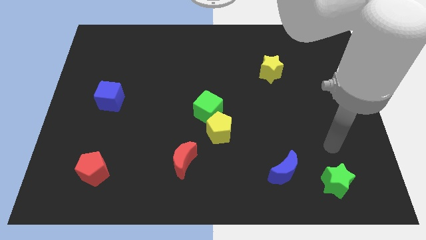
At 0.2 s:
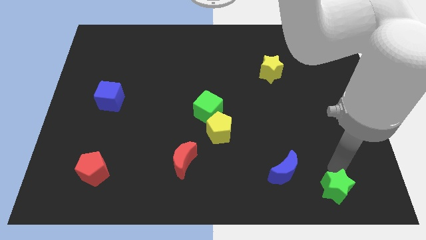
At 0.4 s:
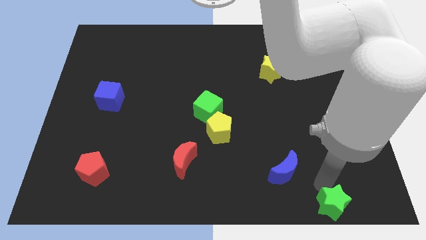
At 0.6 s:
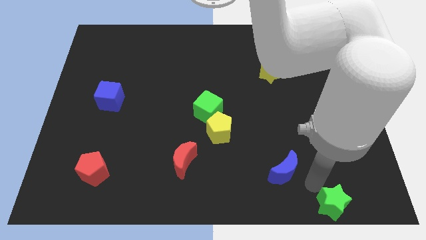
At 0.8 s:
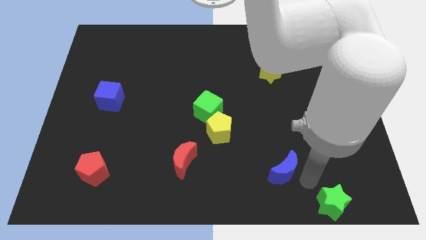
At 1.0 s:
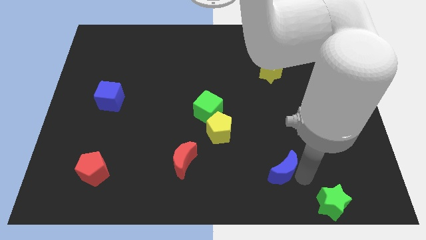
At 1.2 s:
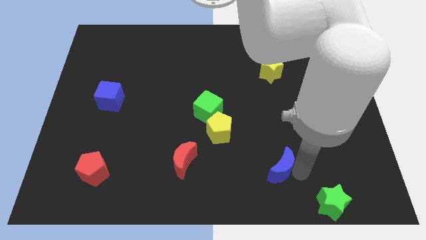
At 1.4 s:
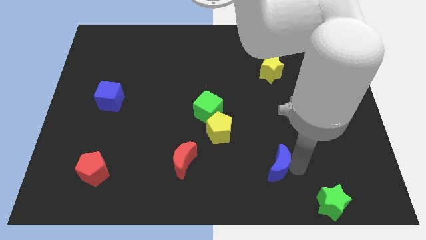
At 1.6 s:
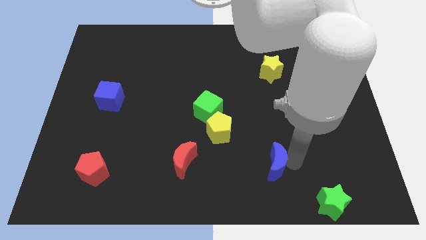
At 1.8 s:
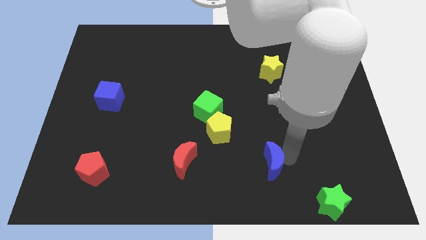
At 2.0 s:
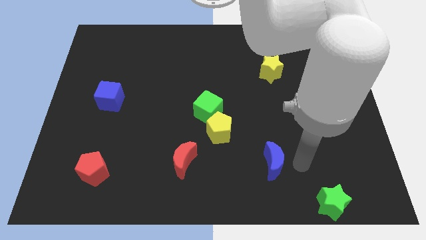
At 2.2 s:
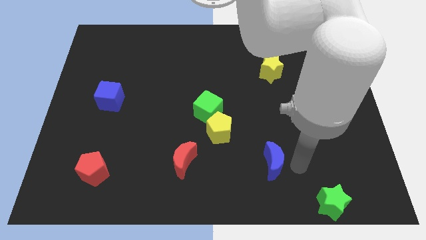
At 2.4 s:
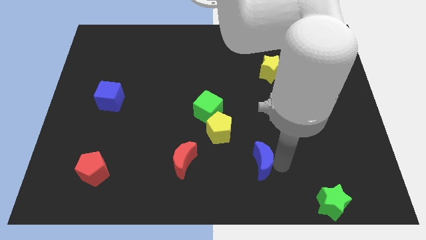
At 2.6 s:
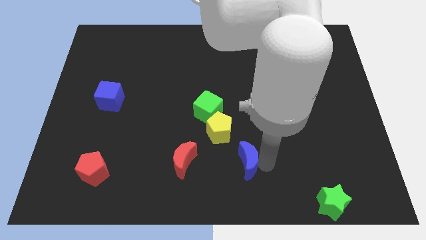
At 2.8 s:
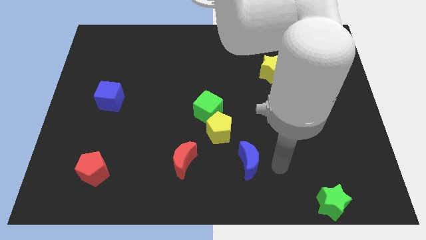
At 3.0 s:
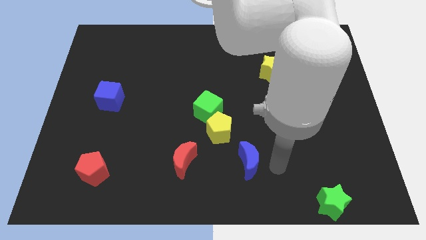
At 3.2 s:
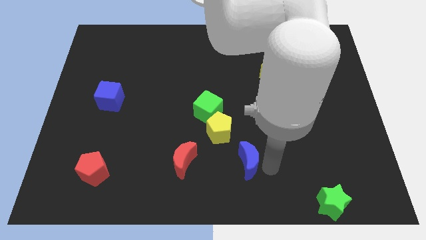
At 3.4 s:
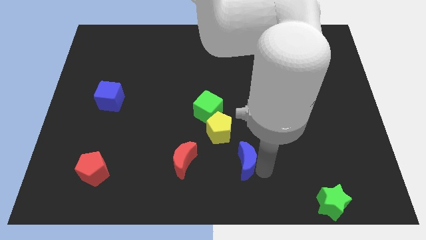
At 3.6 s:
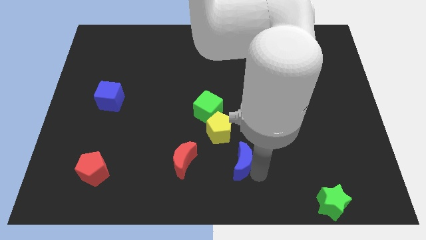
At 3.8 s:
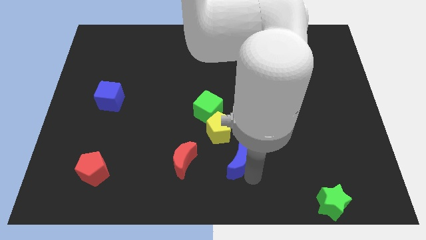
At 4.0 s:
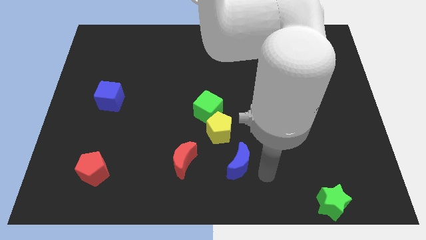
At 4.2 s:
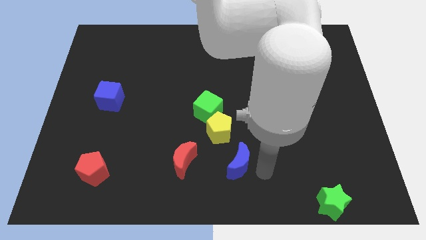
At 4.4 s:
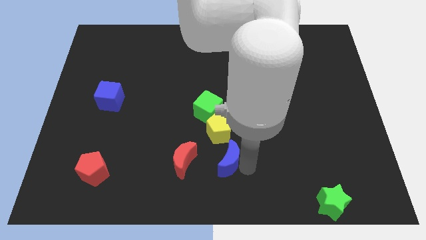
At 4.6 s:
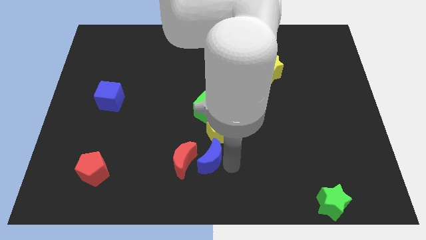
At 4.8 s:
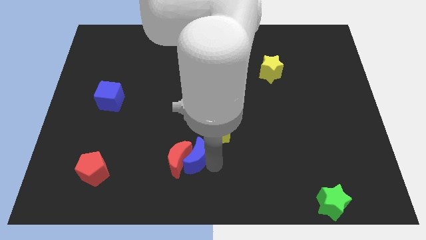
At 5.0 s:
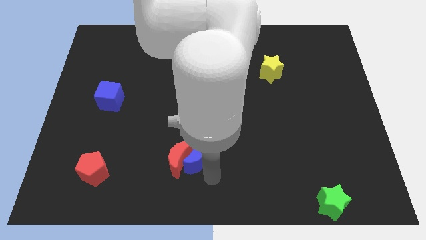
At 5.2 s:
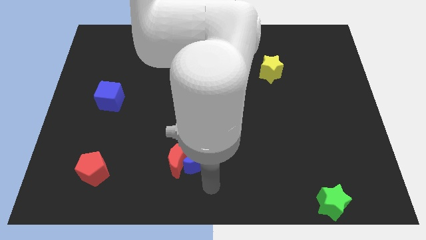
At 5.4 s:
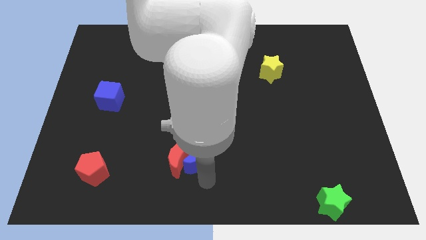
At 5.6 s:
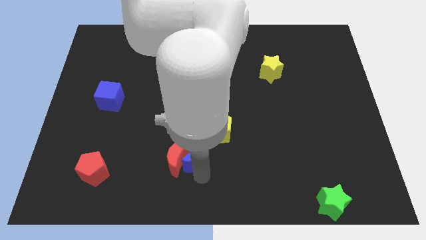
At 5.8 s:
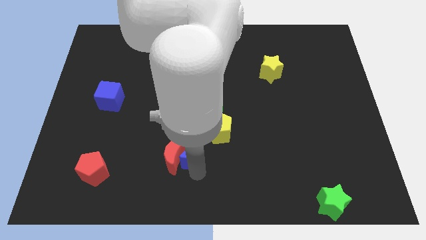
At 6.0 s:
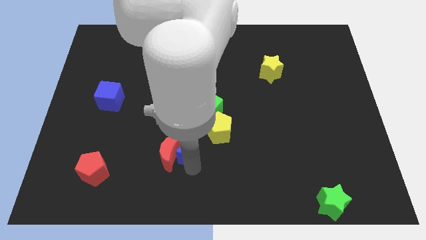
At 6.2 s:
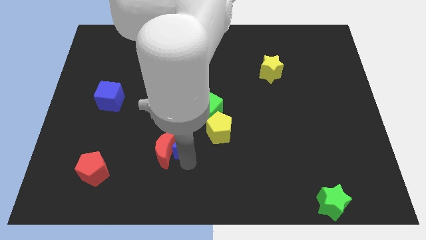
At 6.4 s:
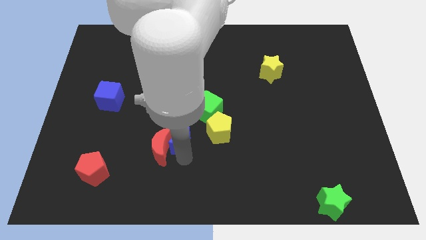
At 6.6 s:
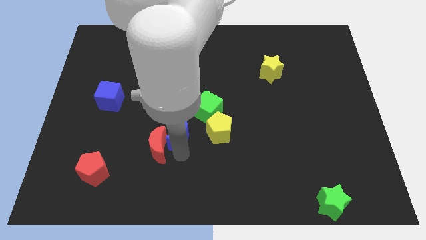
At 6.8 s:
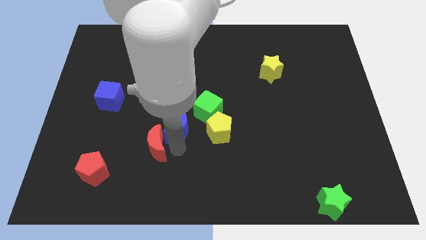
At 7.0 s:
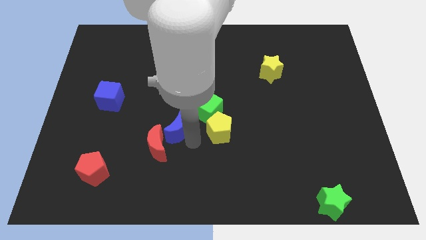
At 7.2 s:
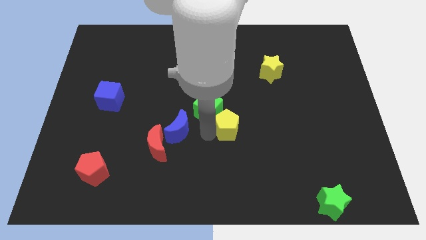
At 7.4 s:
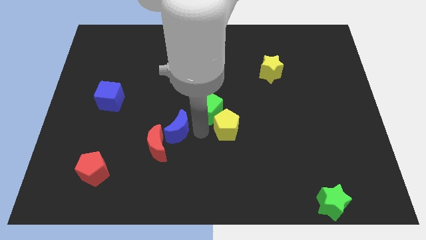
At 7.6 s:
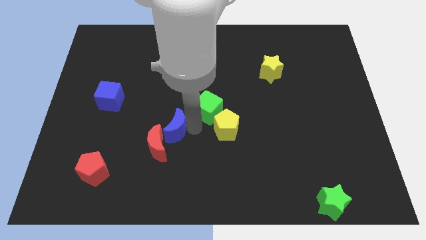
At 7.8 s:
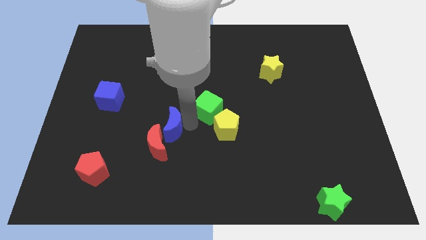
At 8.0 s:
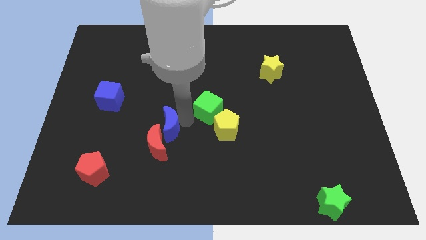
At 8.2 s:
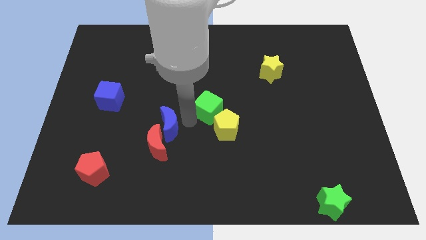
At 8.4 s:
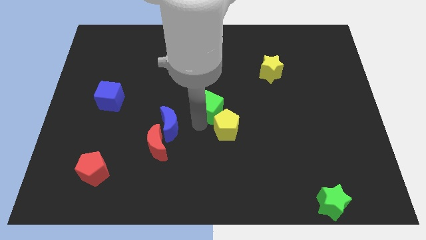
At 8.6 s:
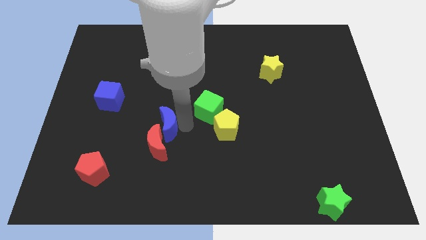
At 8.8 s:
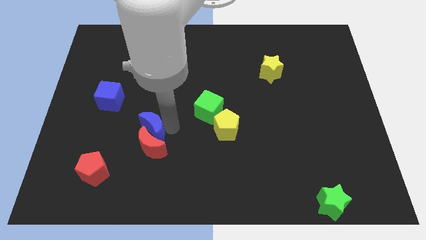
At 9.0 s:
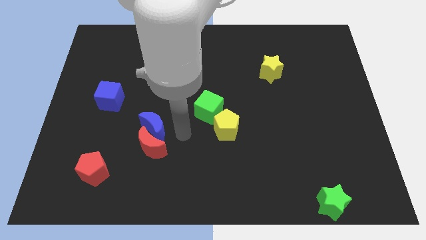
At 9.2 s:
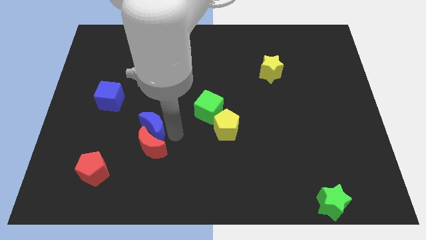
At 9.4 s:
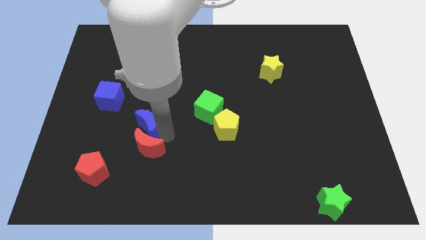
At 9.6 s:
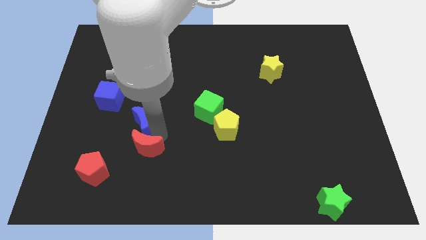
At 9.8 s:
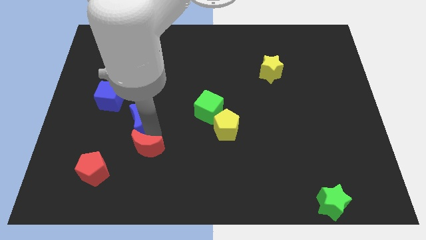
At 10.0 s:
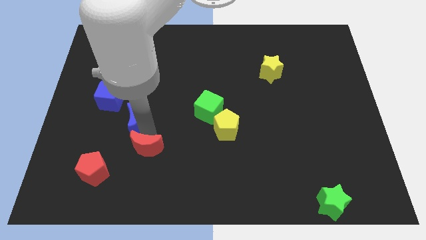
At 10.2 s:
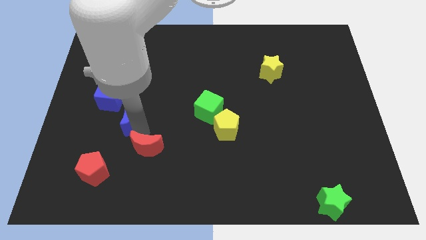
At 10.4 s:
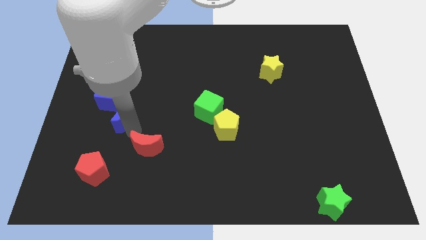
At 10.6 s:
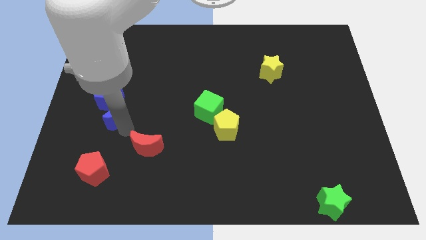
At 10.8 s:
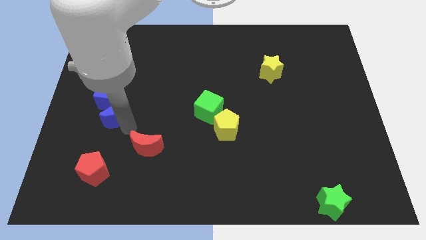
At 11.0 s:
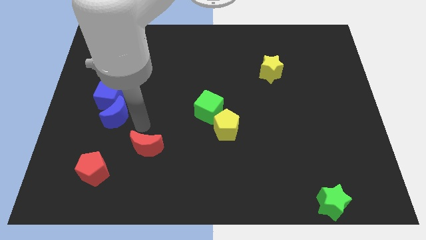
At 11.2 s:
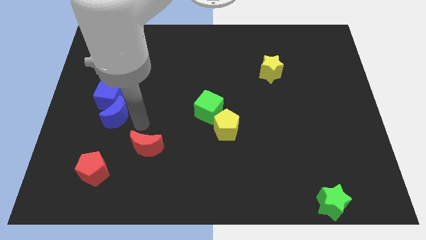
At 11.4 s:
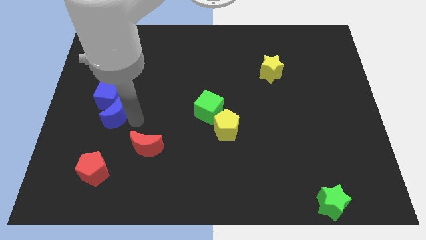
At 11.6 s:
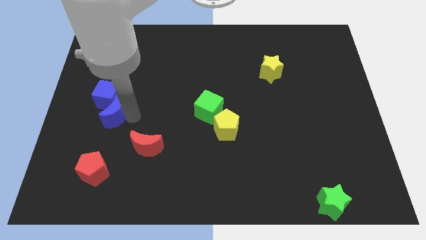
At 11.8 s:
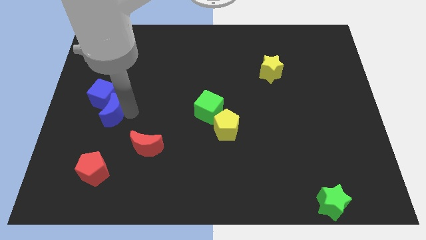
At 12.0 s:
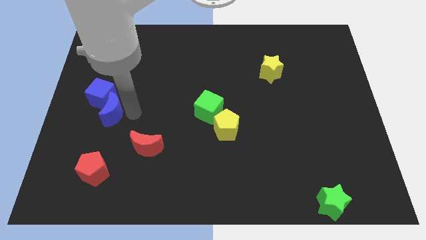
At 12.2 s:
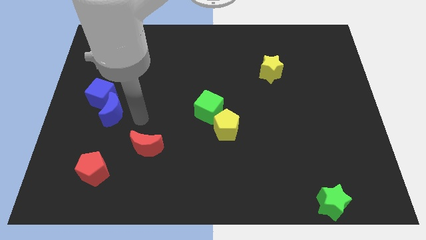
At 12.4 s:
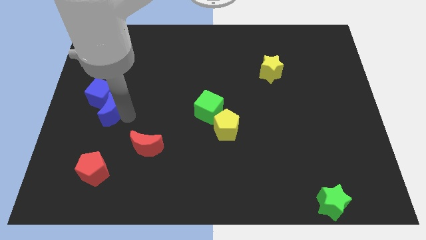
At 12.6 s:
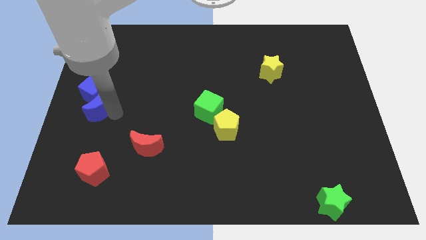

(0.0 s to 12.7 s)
slide the blue moon to the left side

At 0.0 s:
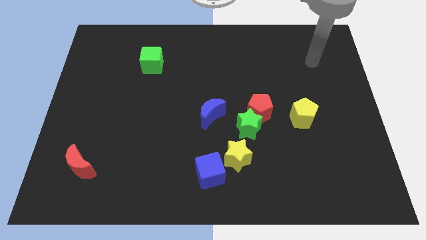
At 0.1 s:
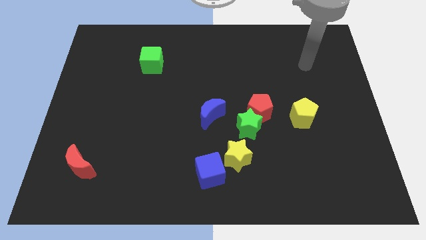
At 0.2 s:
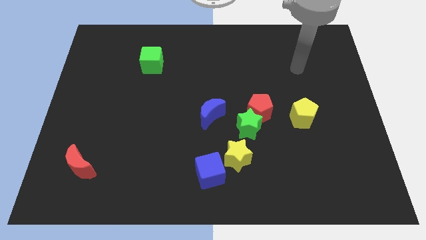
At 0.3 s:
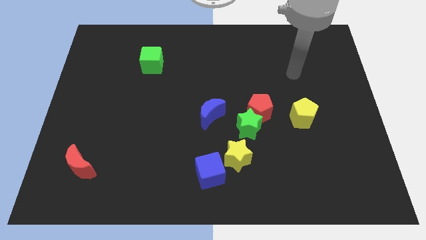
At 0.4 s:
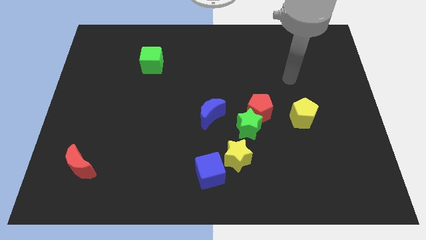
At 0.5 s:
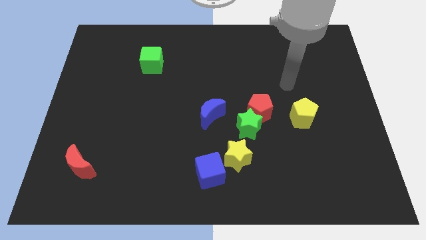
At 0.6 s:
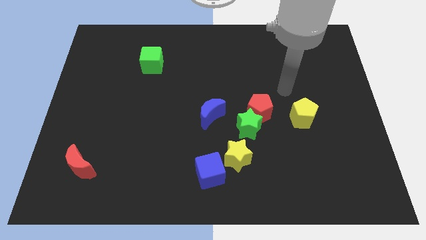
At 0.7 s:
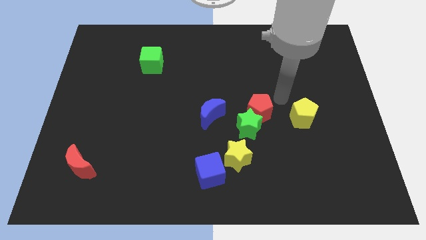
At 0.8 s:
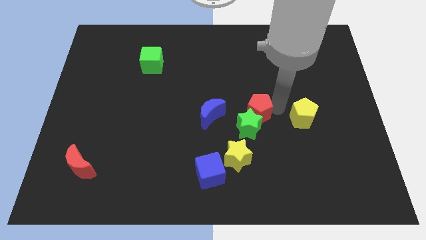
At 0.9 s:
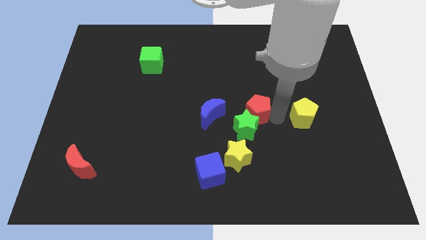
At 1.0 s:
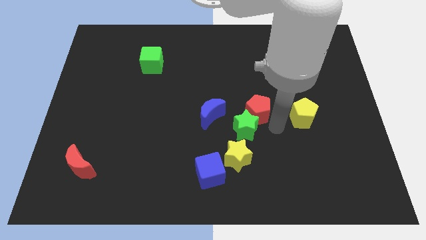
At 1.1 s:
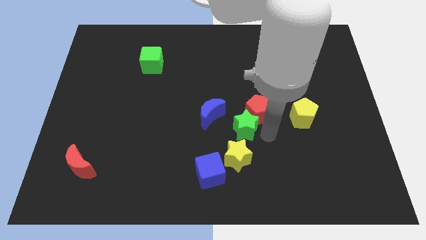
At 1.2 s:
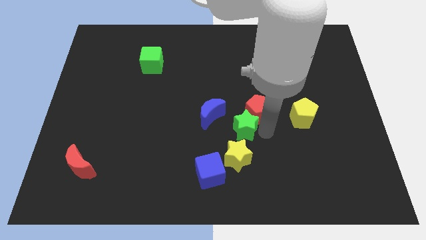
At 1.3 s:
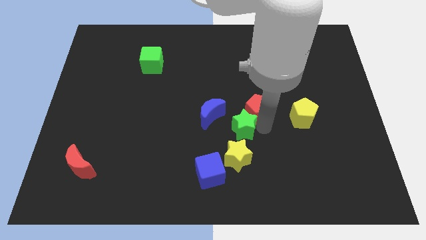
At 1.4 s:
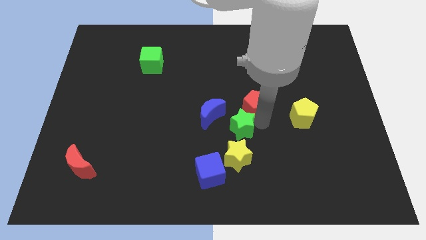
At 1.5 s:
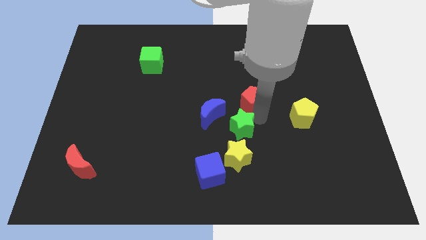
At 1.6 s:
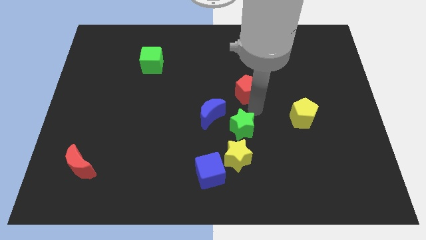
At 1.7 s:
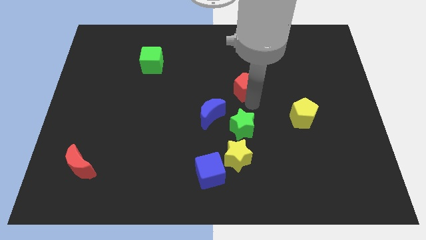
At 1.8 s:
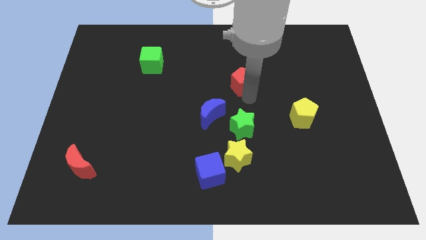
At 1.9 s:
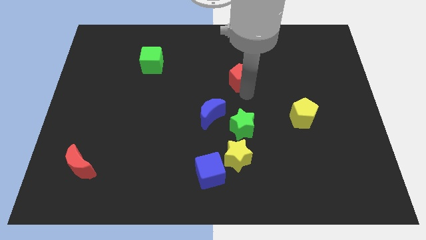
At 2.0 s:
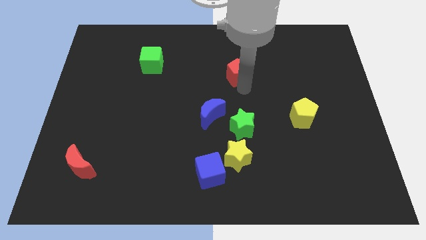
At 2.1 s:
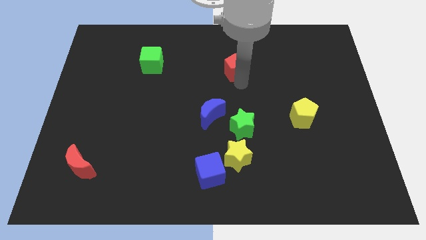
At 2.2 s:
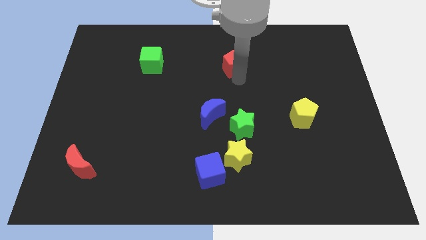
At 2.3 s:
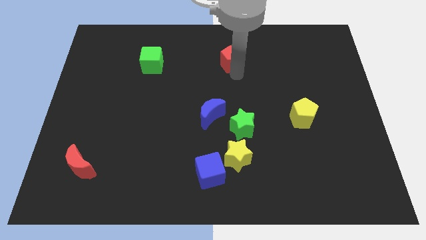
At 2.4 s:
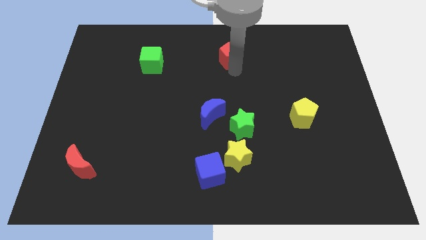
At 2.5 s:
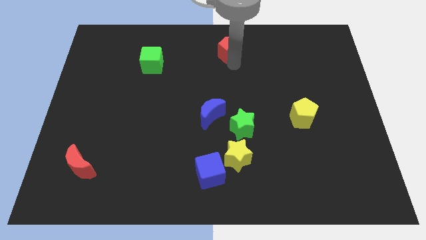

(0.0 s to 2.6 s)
slide the red pentagon to the top
